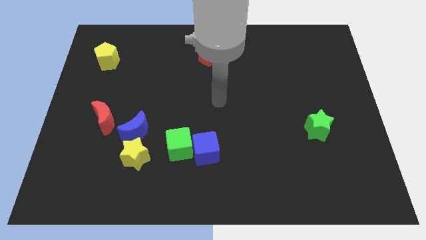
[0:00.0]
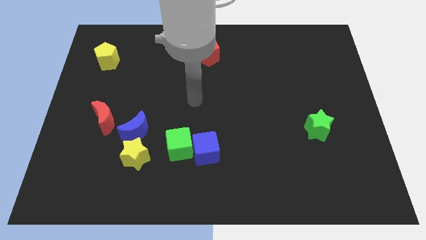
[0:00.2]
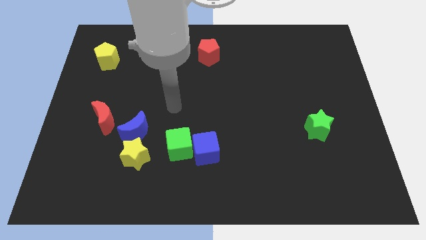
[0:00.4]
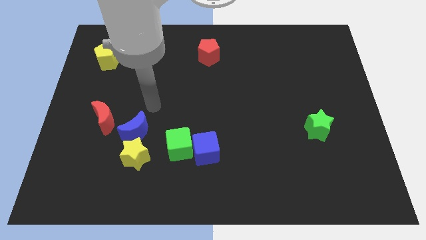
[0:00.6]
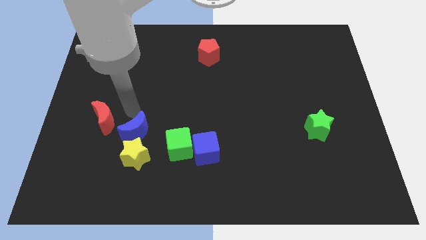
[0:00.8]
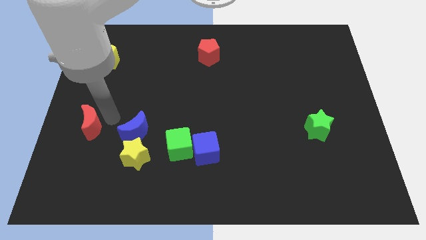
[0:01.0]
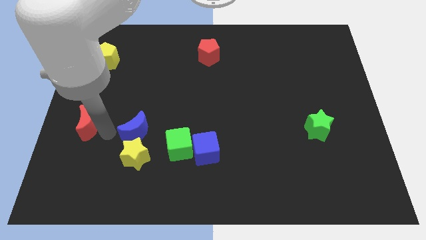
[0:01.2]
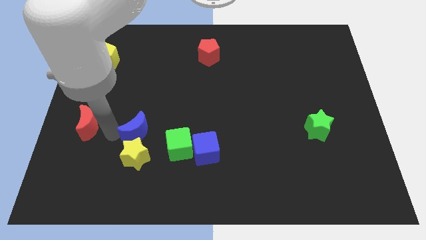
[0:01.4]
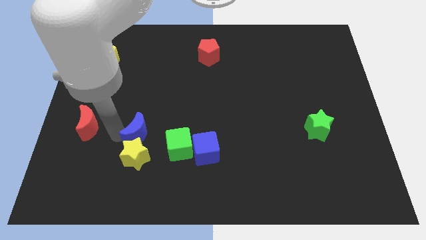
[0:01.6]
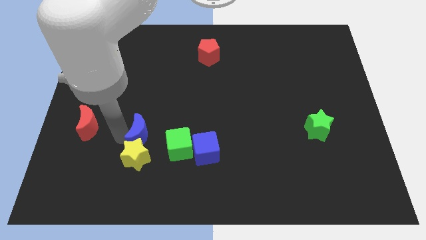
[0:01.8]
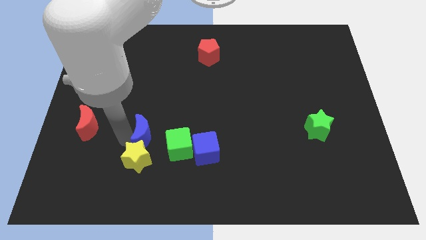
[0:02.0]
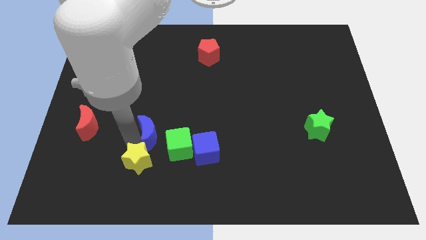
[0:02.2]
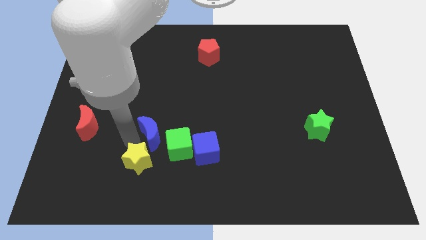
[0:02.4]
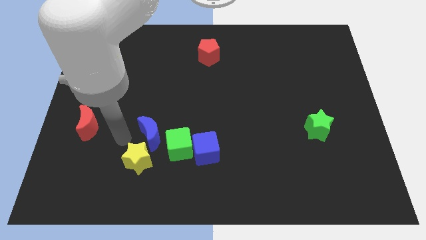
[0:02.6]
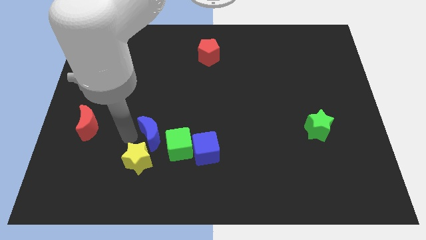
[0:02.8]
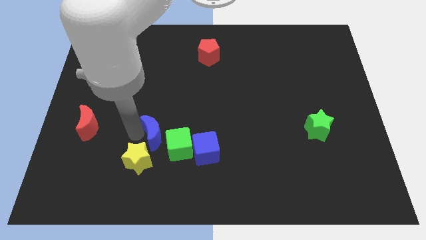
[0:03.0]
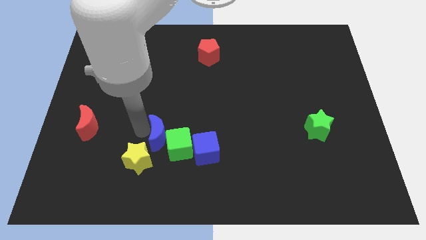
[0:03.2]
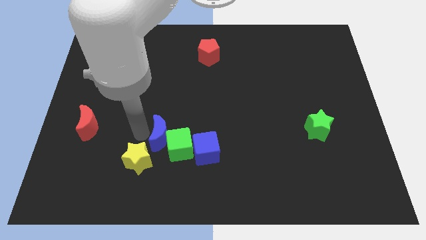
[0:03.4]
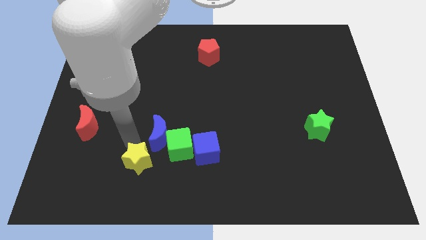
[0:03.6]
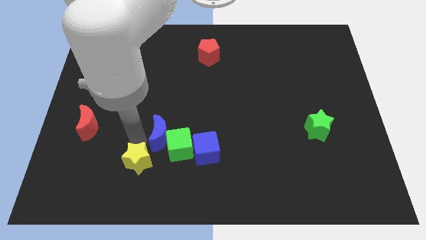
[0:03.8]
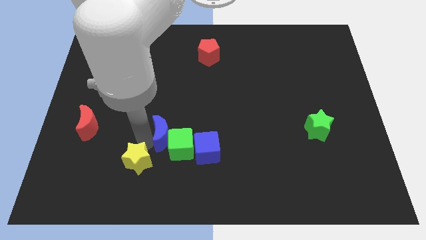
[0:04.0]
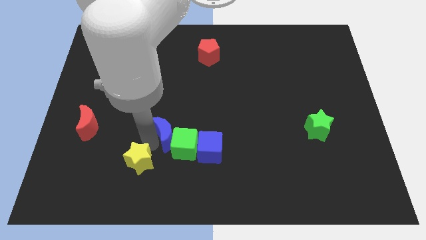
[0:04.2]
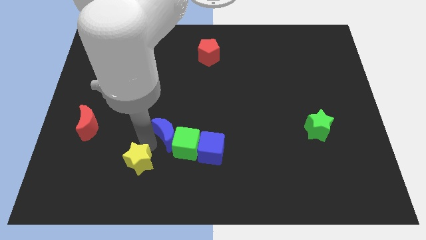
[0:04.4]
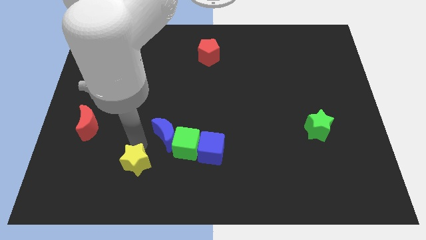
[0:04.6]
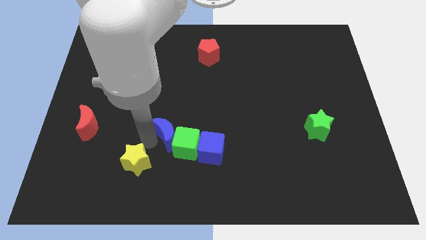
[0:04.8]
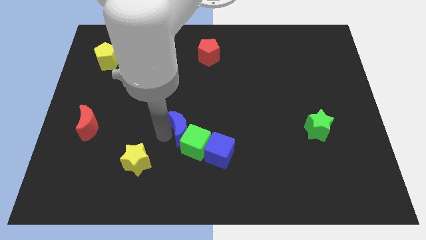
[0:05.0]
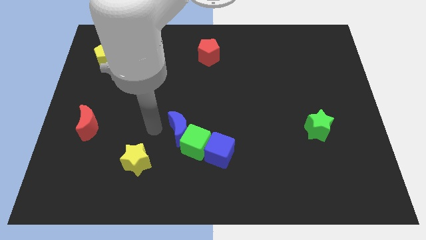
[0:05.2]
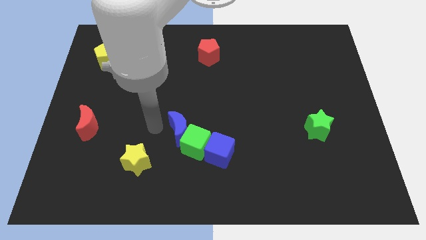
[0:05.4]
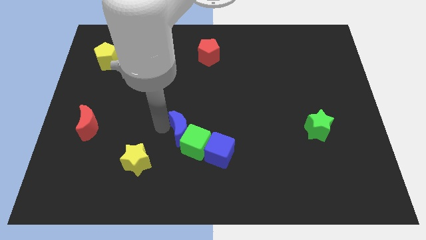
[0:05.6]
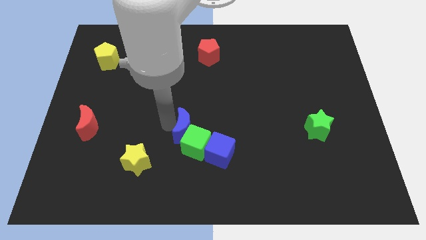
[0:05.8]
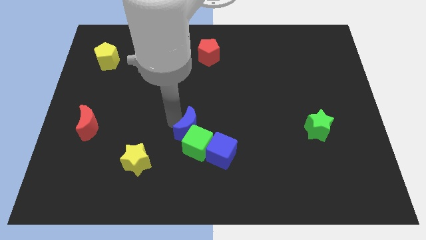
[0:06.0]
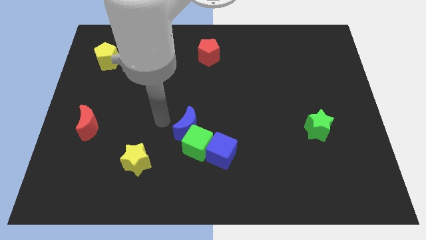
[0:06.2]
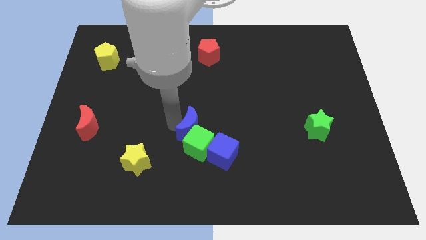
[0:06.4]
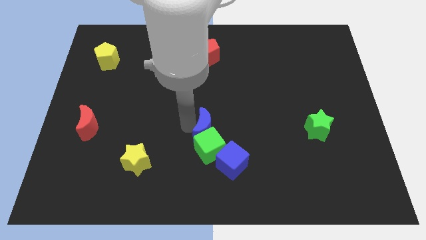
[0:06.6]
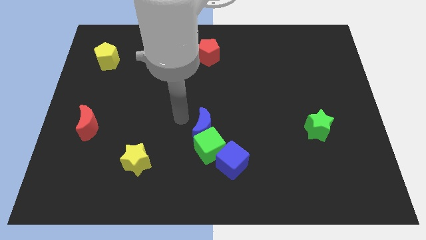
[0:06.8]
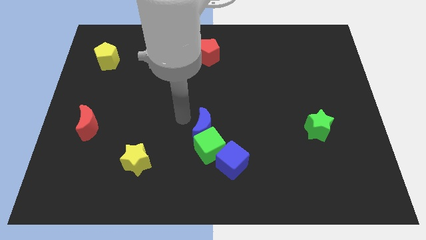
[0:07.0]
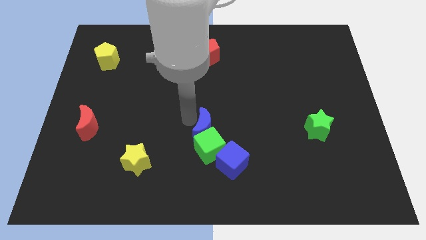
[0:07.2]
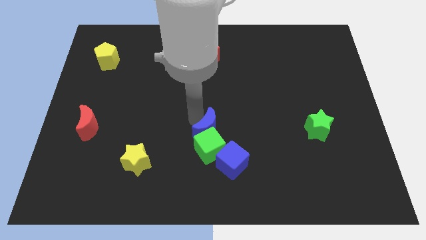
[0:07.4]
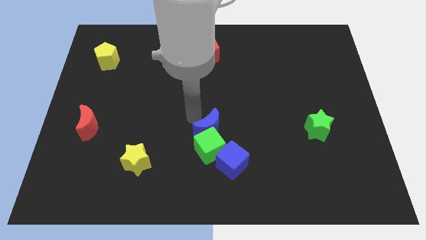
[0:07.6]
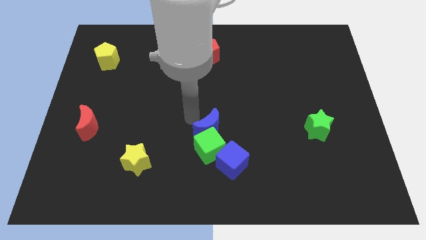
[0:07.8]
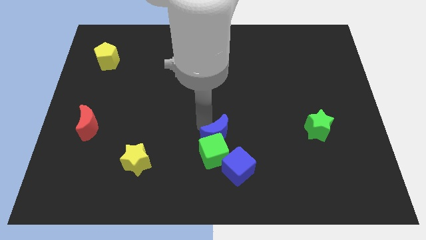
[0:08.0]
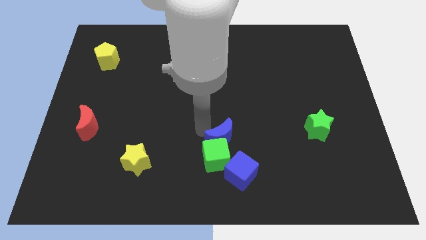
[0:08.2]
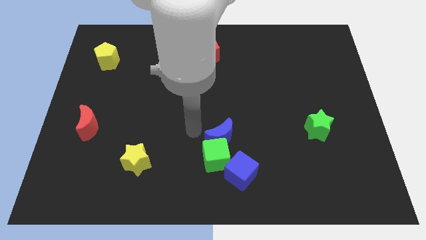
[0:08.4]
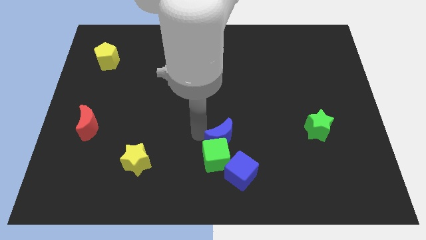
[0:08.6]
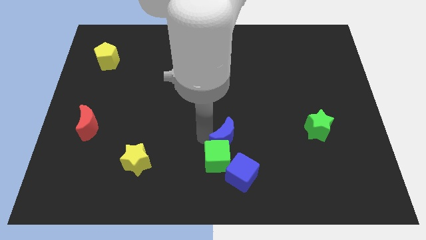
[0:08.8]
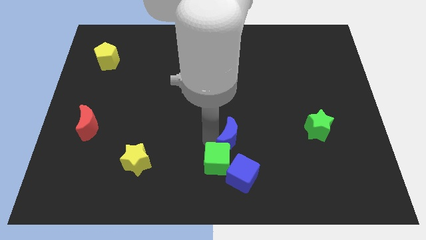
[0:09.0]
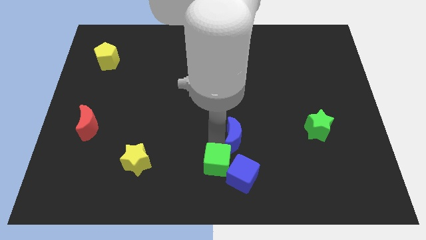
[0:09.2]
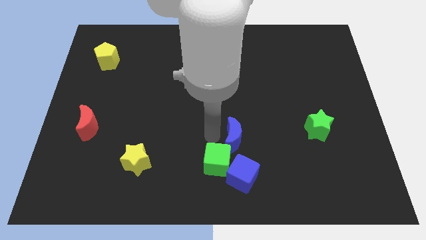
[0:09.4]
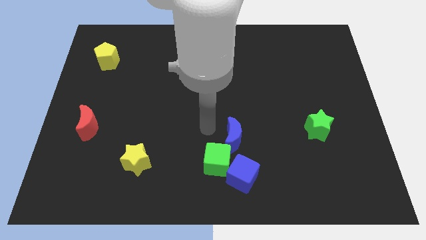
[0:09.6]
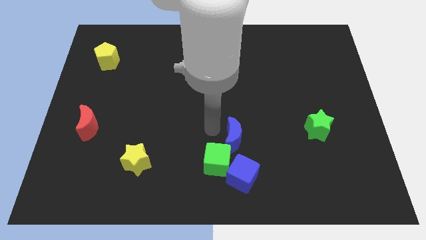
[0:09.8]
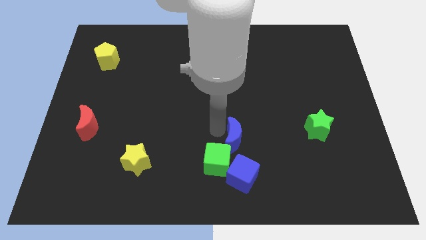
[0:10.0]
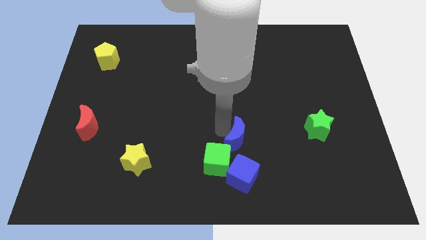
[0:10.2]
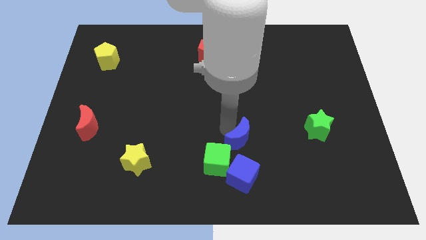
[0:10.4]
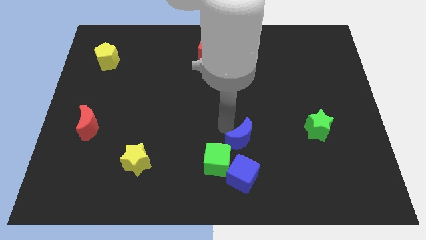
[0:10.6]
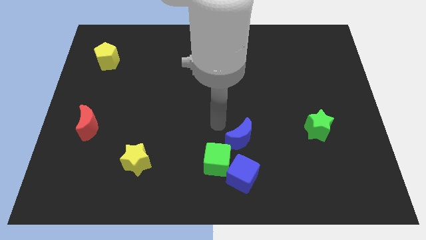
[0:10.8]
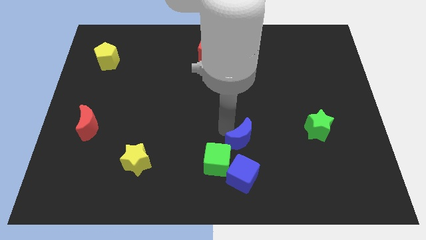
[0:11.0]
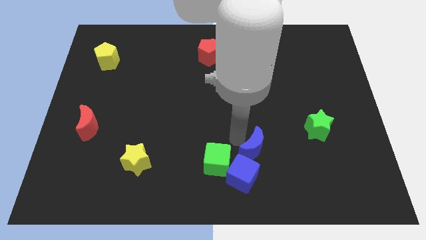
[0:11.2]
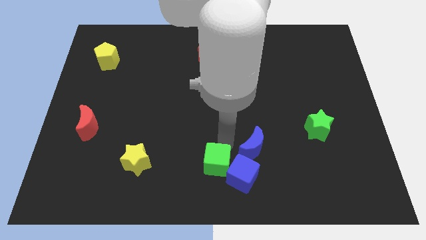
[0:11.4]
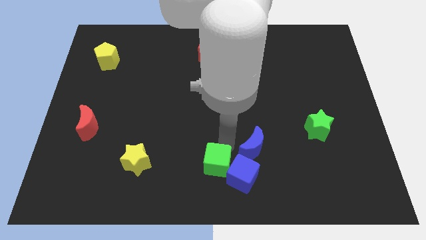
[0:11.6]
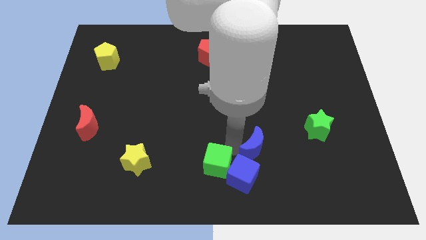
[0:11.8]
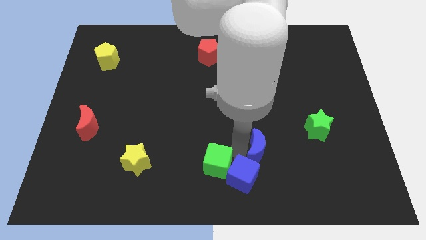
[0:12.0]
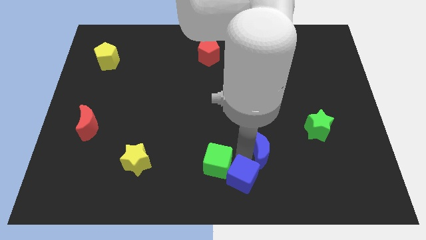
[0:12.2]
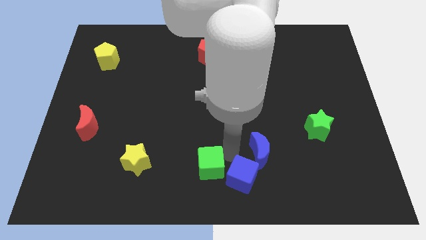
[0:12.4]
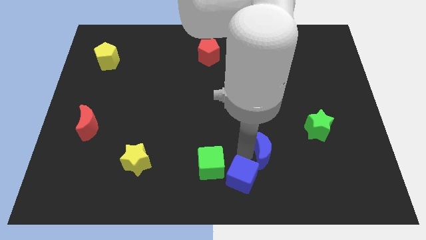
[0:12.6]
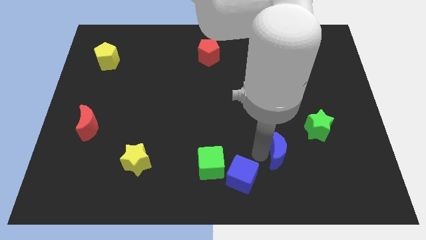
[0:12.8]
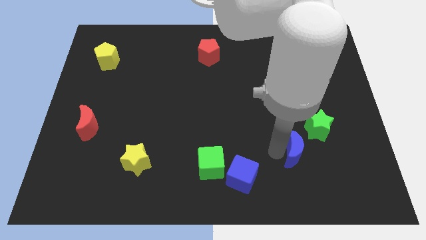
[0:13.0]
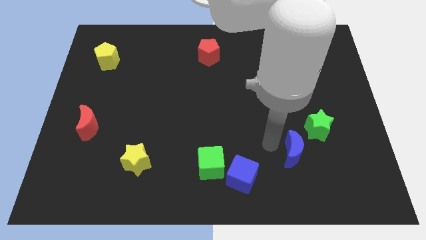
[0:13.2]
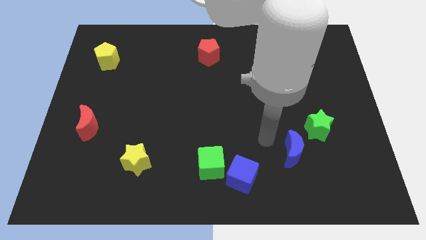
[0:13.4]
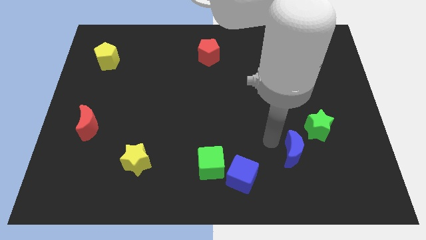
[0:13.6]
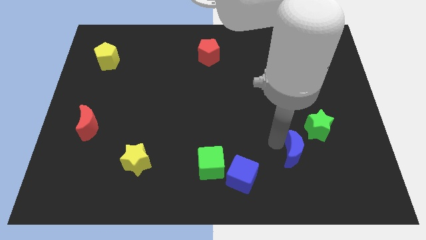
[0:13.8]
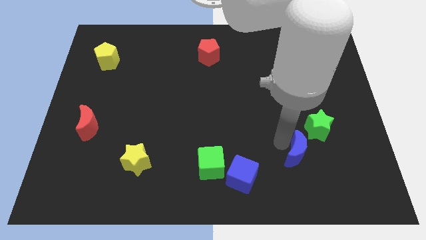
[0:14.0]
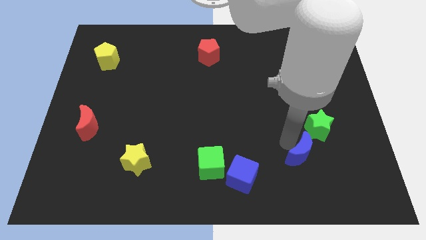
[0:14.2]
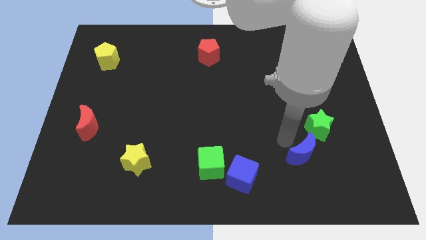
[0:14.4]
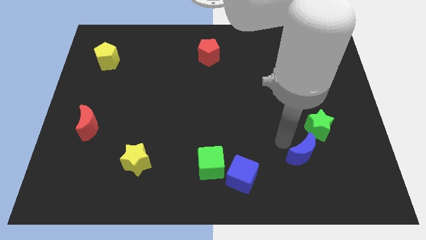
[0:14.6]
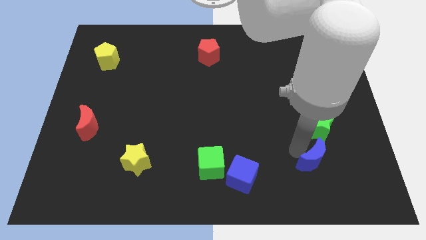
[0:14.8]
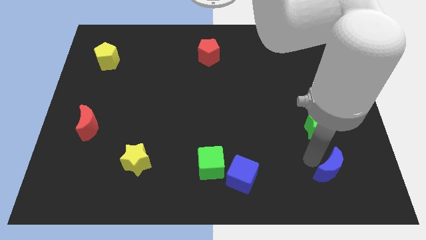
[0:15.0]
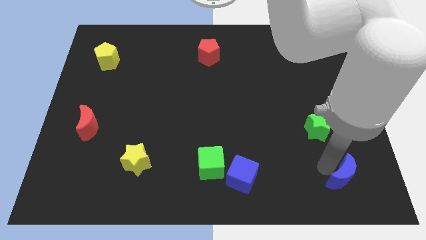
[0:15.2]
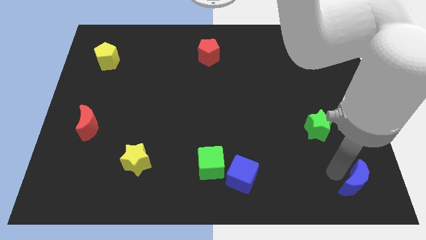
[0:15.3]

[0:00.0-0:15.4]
move the blue moon to the bottom right of the board
